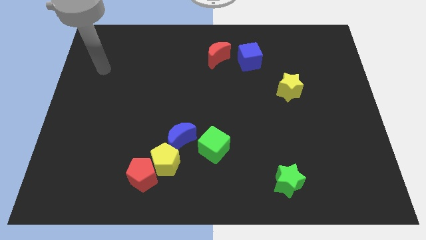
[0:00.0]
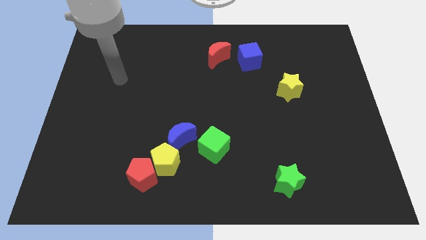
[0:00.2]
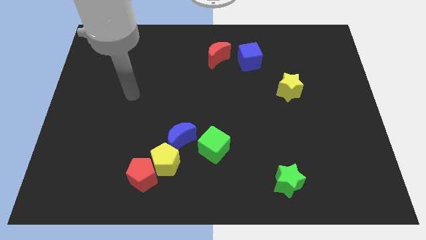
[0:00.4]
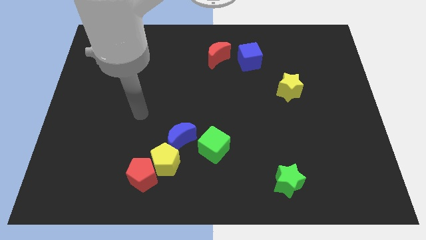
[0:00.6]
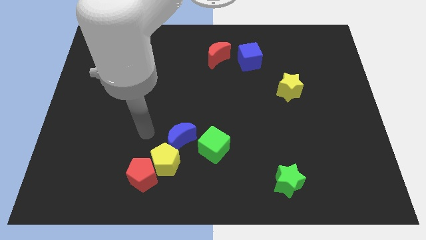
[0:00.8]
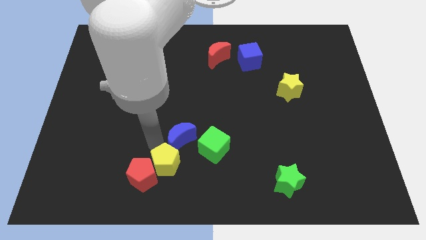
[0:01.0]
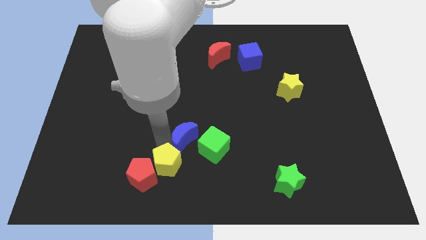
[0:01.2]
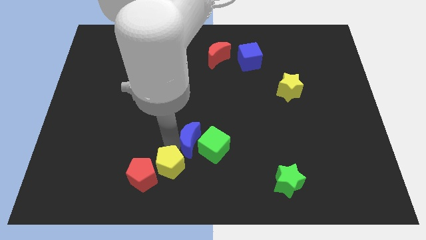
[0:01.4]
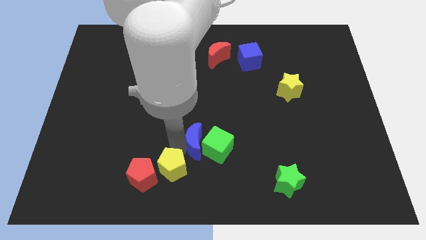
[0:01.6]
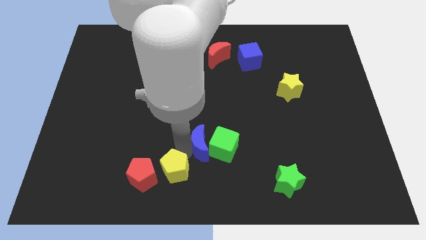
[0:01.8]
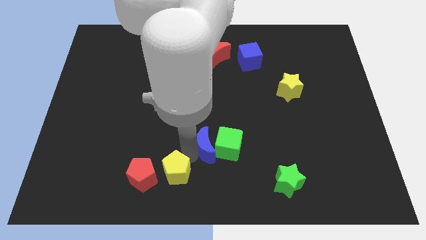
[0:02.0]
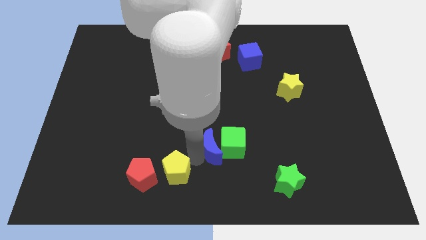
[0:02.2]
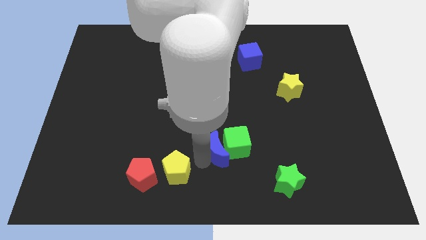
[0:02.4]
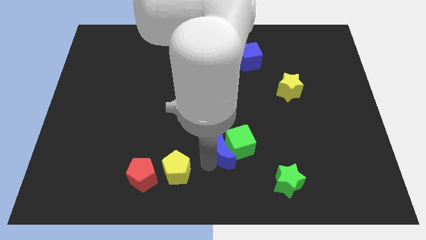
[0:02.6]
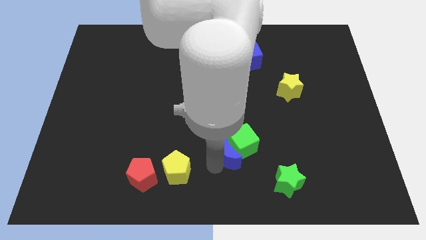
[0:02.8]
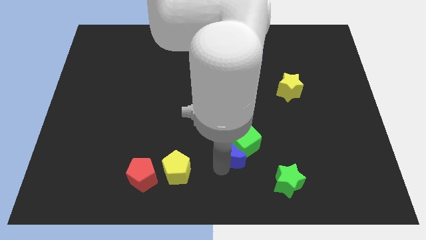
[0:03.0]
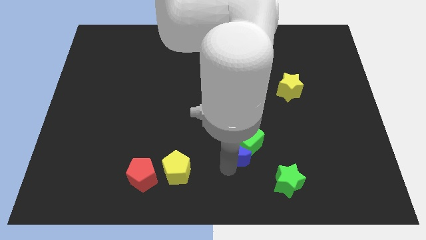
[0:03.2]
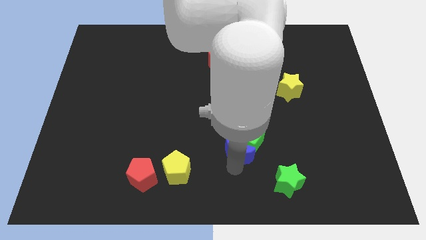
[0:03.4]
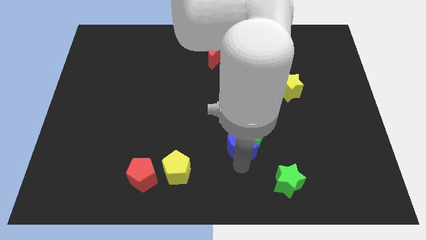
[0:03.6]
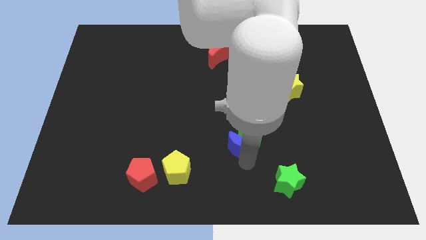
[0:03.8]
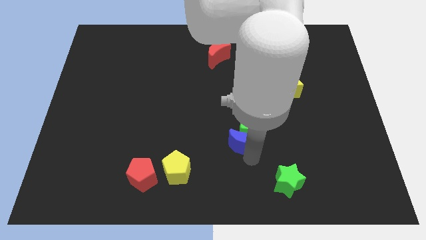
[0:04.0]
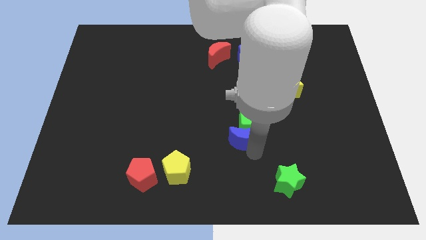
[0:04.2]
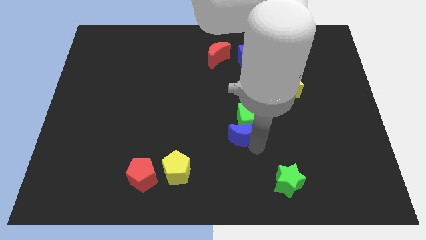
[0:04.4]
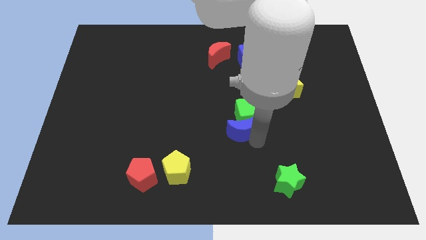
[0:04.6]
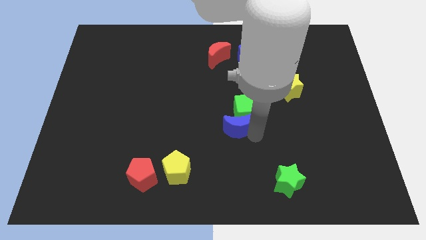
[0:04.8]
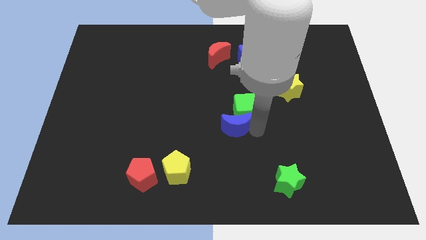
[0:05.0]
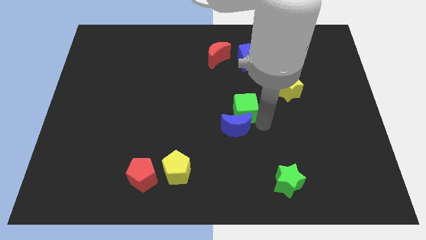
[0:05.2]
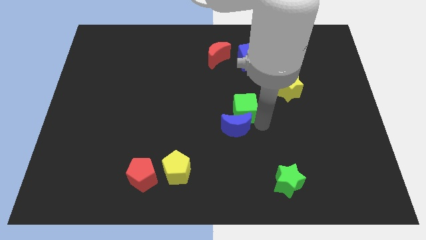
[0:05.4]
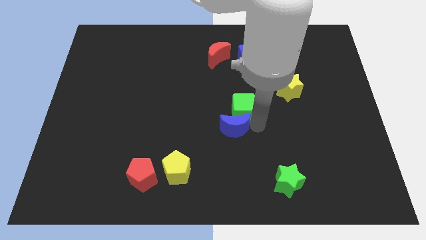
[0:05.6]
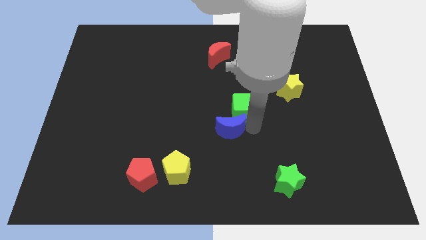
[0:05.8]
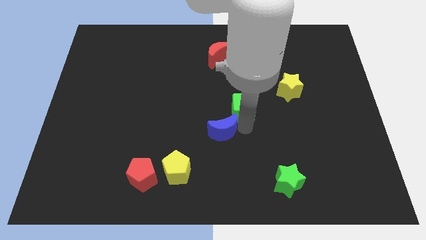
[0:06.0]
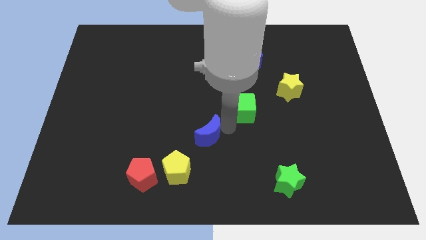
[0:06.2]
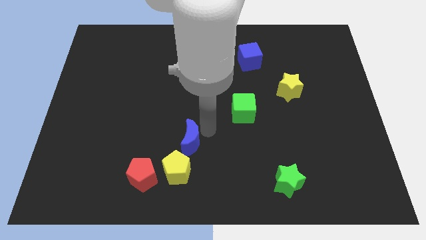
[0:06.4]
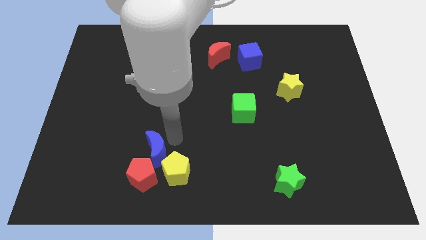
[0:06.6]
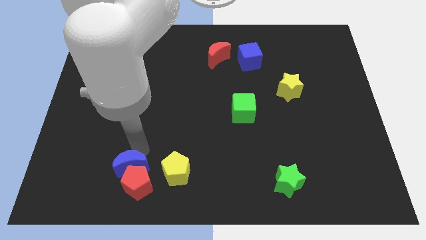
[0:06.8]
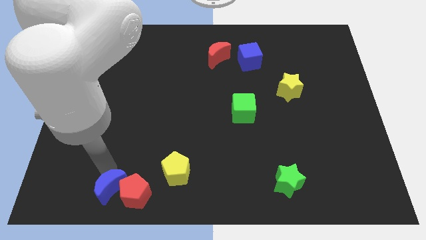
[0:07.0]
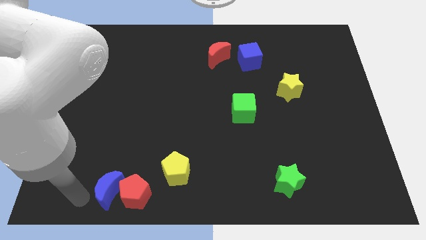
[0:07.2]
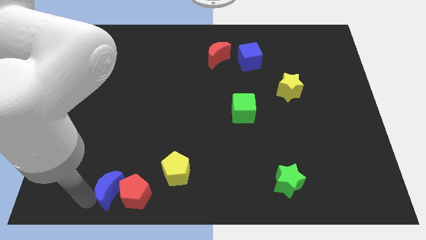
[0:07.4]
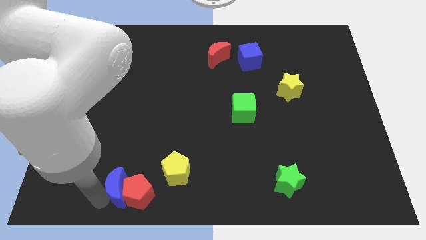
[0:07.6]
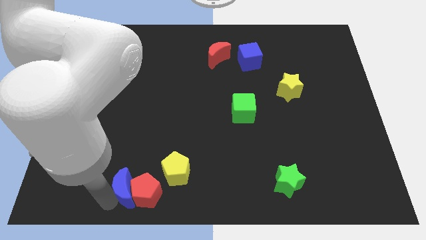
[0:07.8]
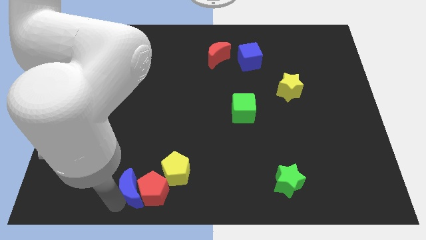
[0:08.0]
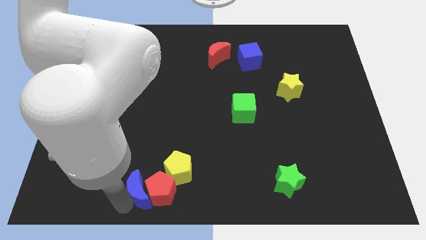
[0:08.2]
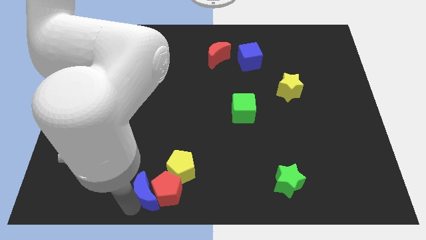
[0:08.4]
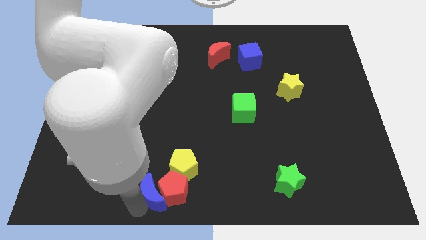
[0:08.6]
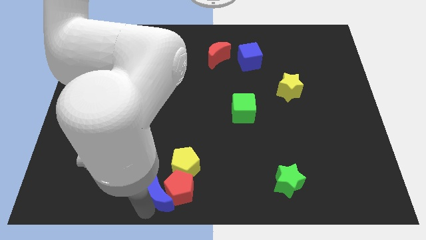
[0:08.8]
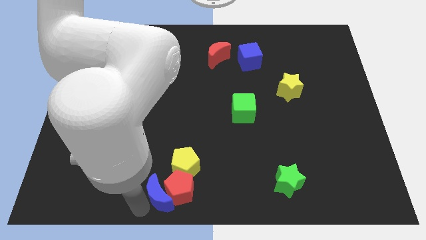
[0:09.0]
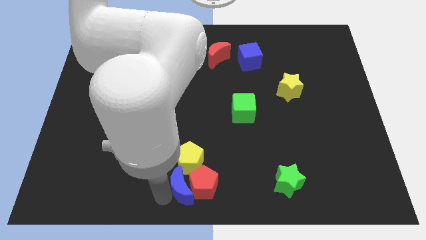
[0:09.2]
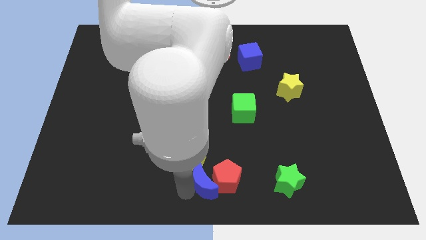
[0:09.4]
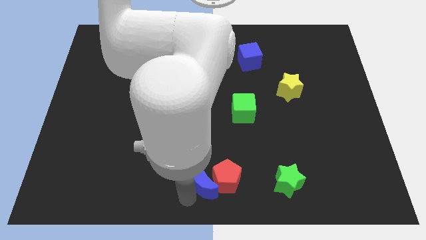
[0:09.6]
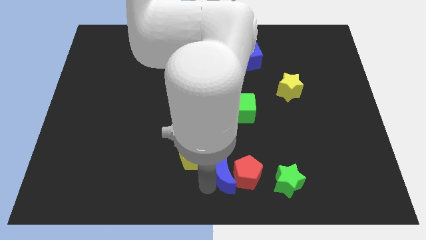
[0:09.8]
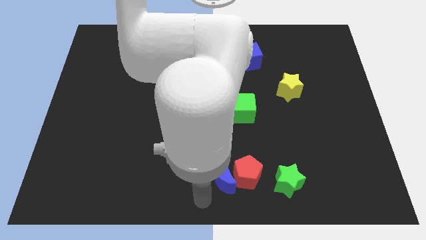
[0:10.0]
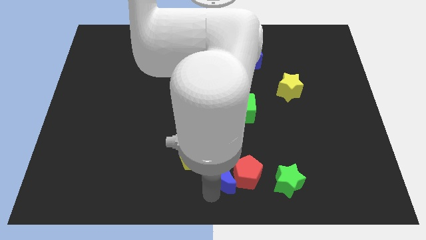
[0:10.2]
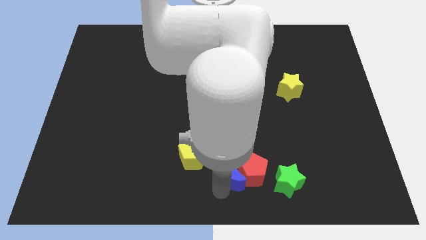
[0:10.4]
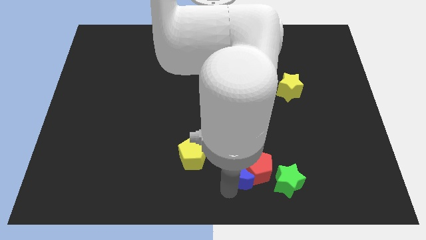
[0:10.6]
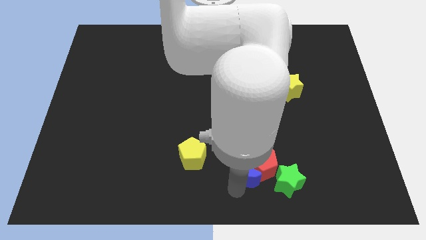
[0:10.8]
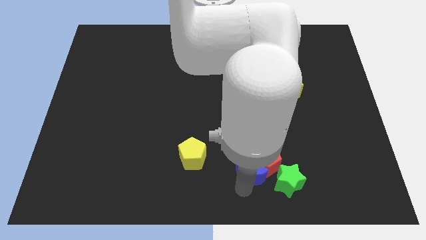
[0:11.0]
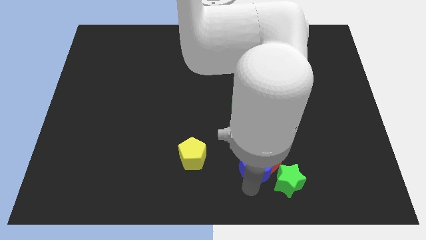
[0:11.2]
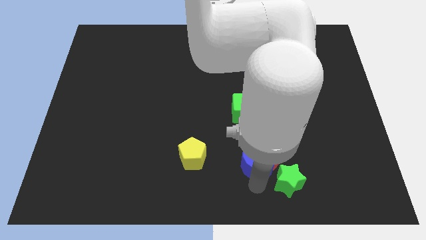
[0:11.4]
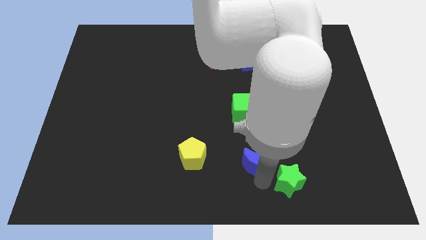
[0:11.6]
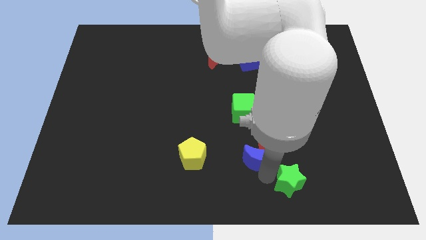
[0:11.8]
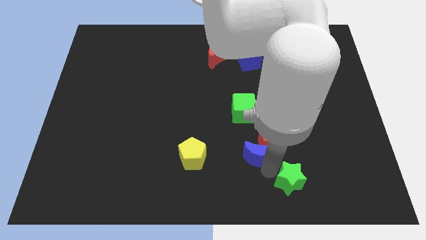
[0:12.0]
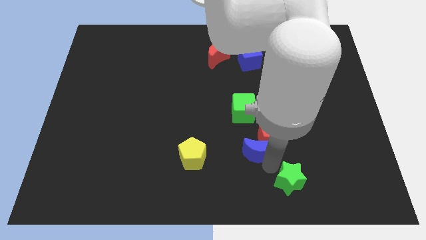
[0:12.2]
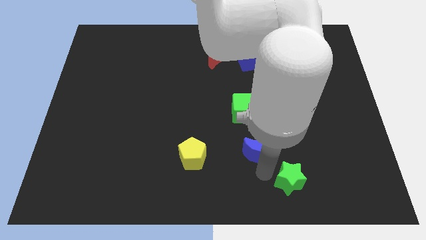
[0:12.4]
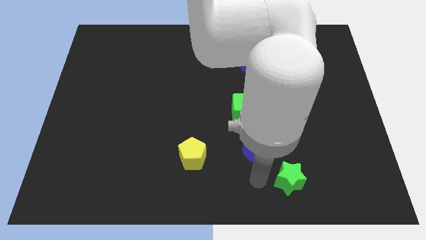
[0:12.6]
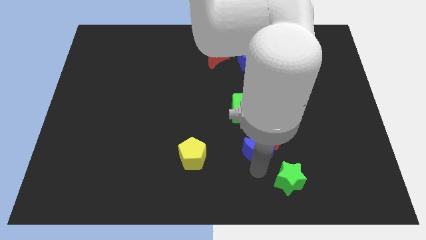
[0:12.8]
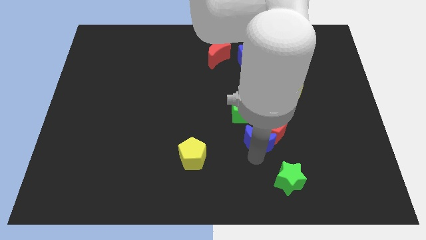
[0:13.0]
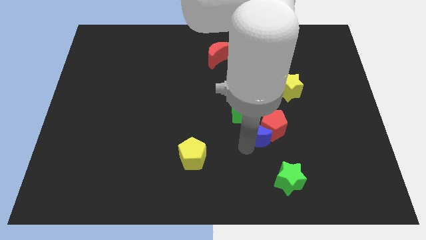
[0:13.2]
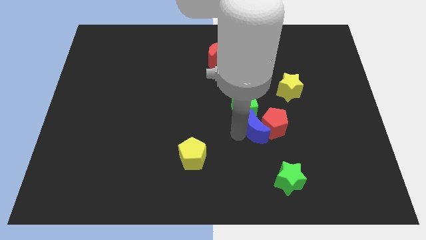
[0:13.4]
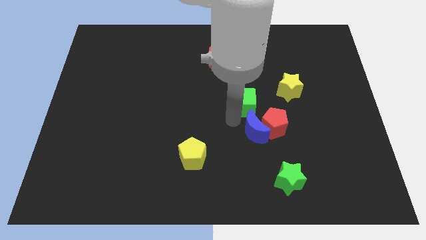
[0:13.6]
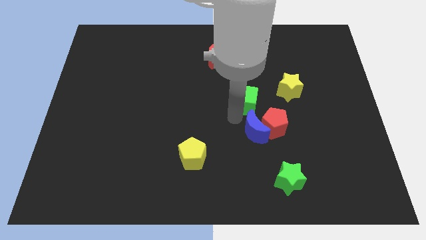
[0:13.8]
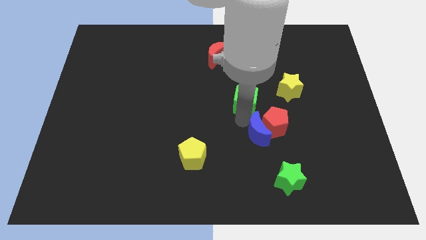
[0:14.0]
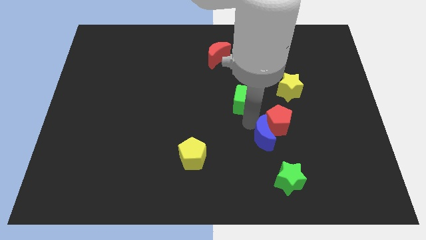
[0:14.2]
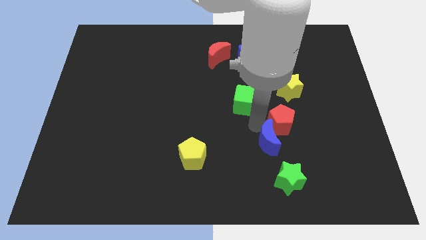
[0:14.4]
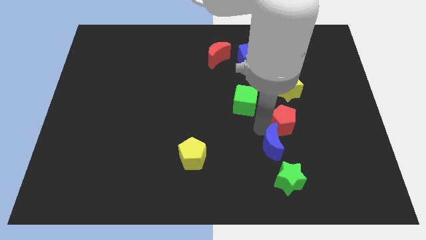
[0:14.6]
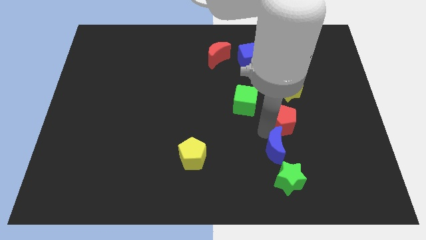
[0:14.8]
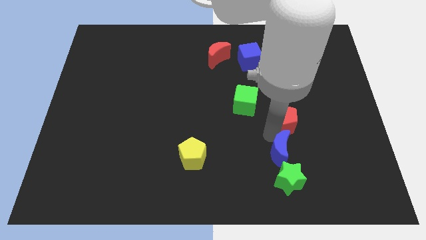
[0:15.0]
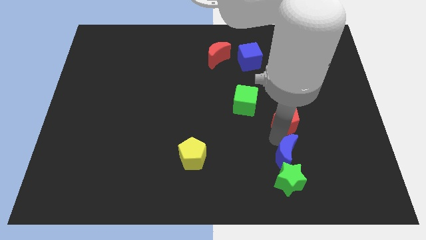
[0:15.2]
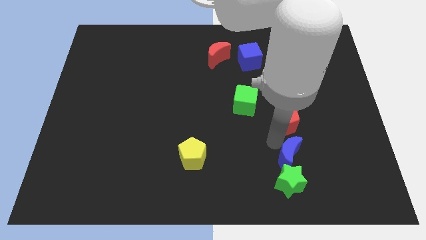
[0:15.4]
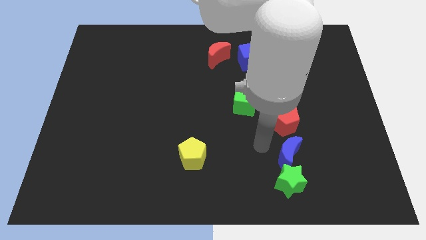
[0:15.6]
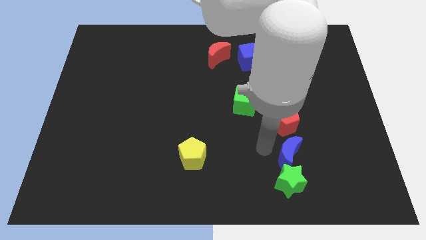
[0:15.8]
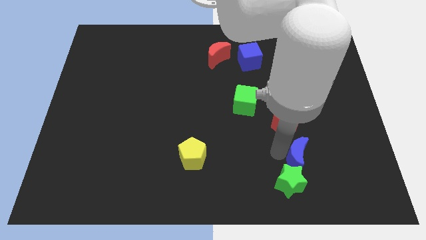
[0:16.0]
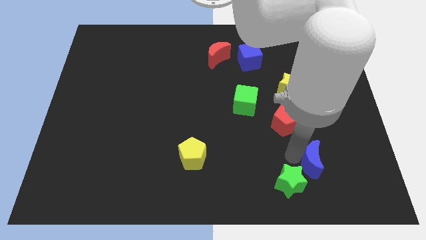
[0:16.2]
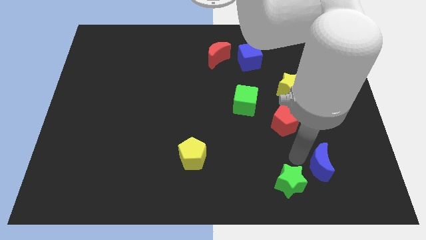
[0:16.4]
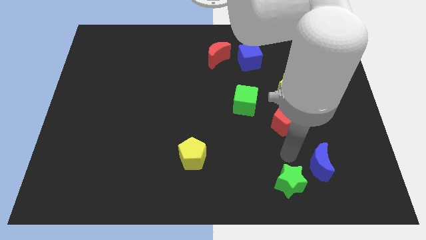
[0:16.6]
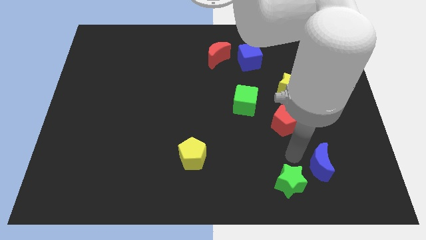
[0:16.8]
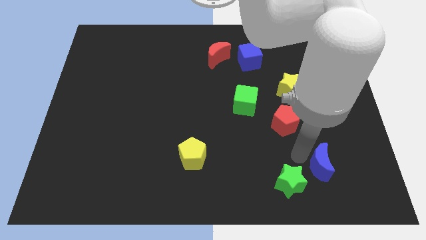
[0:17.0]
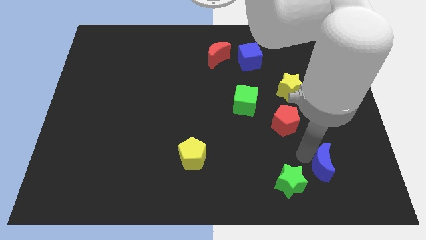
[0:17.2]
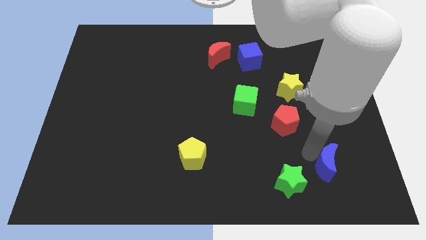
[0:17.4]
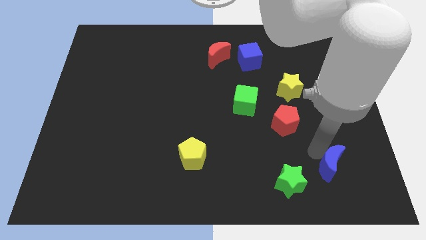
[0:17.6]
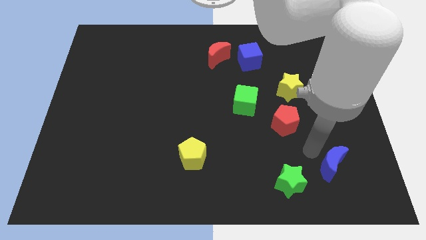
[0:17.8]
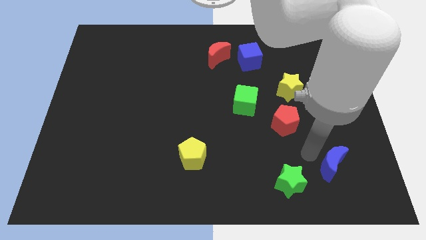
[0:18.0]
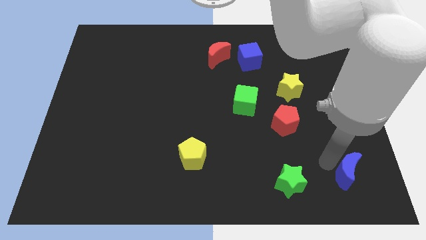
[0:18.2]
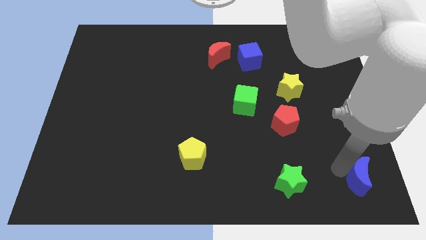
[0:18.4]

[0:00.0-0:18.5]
slide the blue moon to the bottom right of the board
